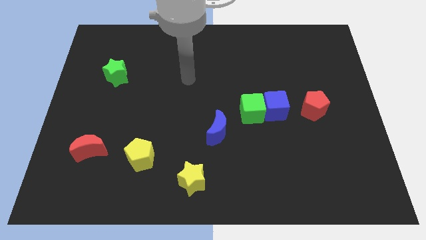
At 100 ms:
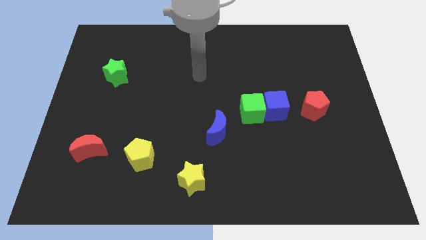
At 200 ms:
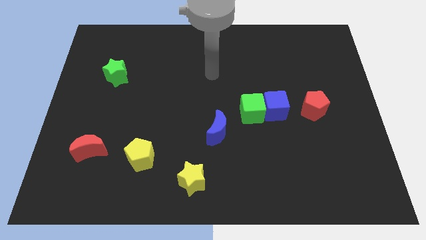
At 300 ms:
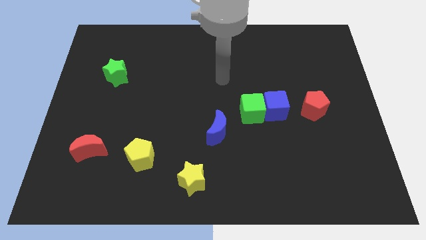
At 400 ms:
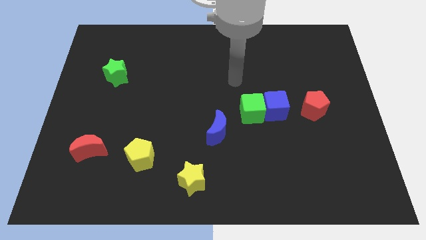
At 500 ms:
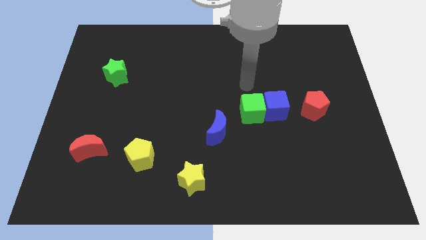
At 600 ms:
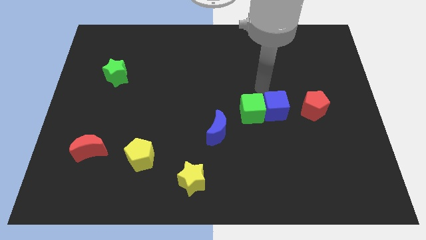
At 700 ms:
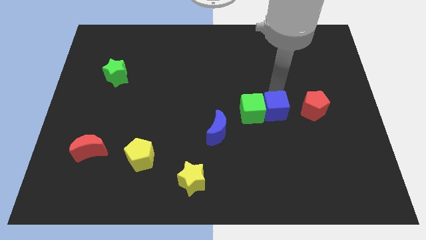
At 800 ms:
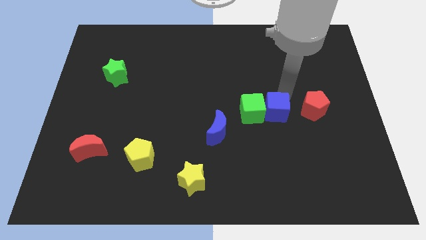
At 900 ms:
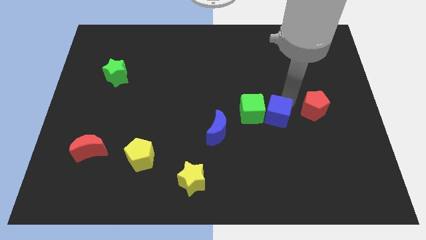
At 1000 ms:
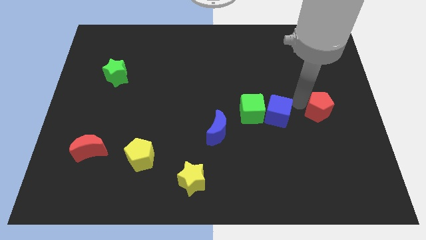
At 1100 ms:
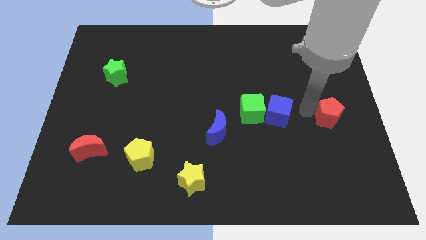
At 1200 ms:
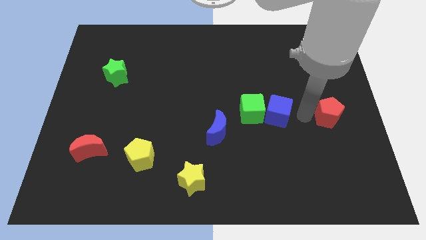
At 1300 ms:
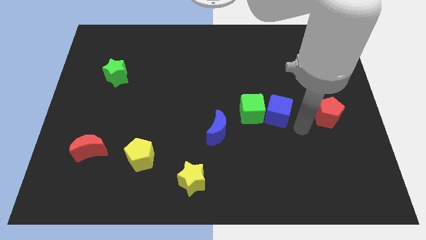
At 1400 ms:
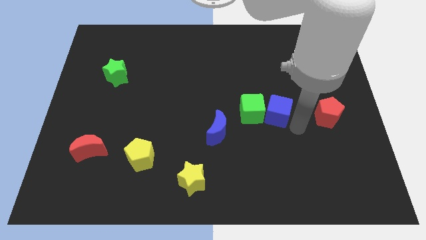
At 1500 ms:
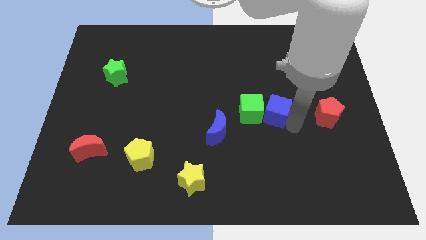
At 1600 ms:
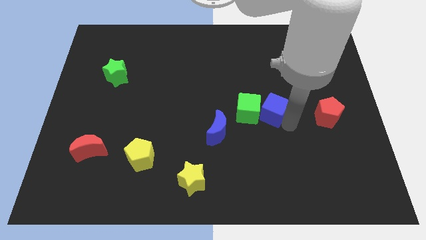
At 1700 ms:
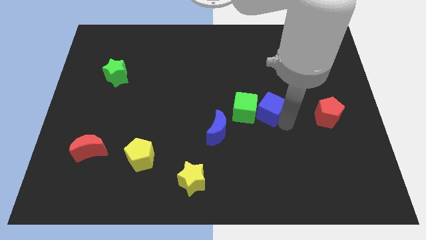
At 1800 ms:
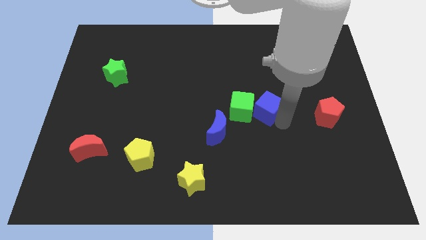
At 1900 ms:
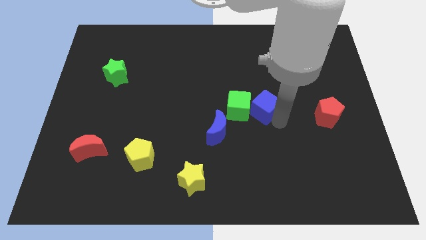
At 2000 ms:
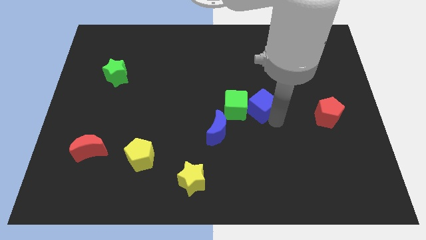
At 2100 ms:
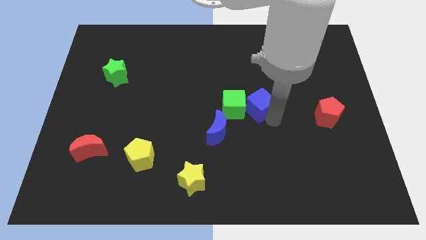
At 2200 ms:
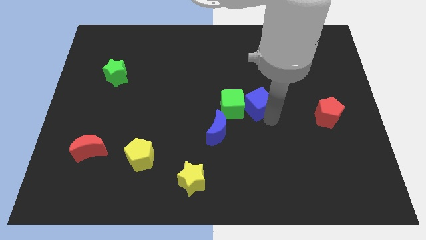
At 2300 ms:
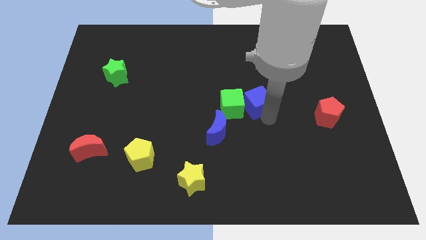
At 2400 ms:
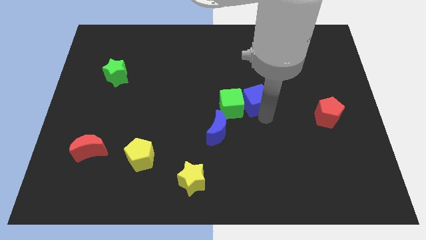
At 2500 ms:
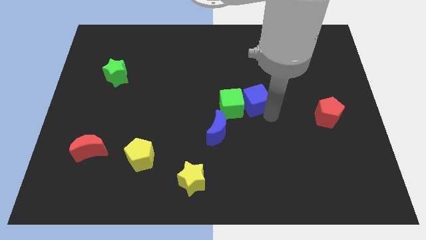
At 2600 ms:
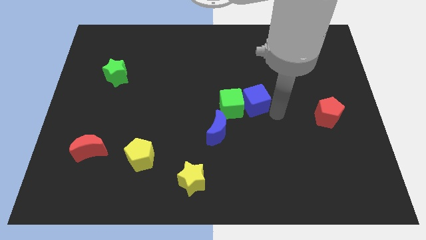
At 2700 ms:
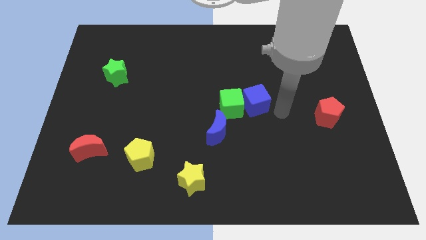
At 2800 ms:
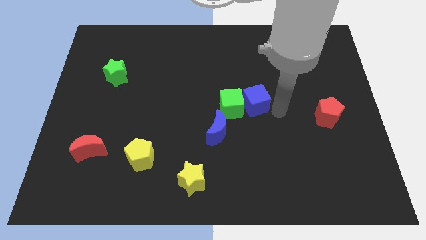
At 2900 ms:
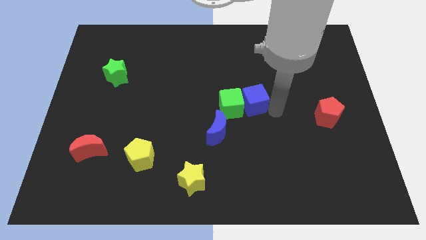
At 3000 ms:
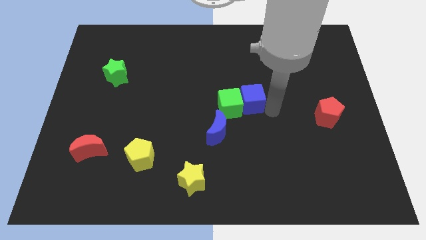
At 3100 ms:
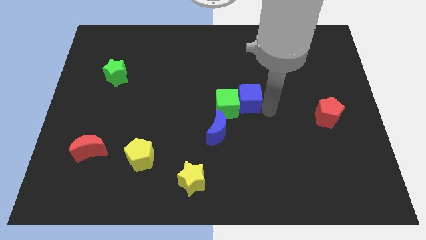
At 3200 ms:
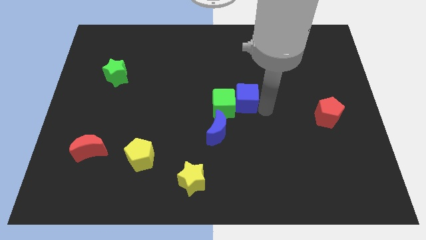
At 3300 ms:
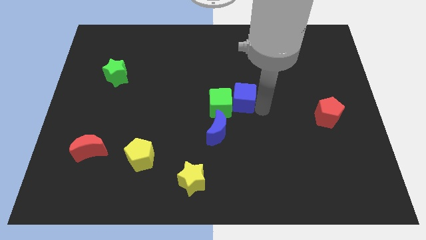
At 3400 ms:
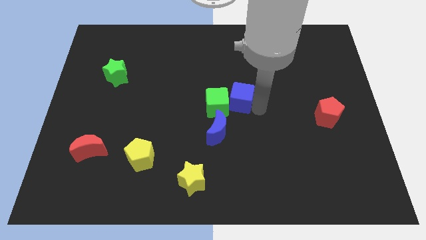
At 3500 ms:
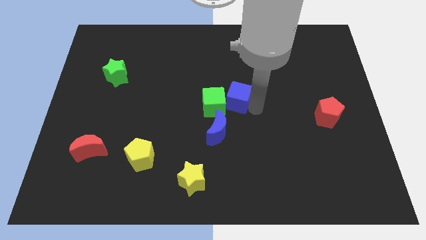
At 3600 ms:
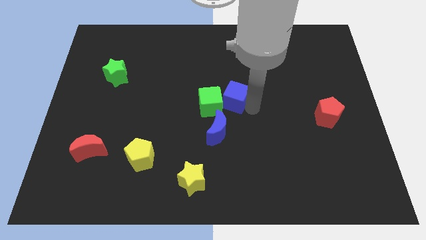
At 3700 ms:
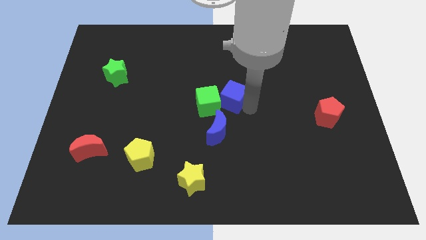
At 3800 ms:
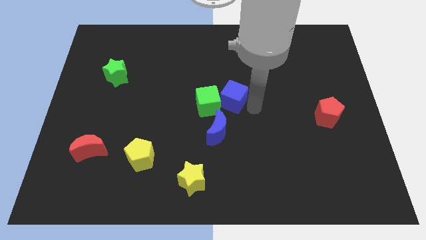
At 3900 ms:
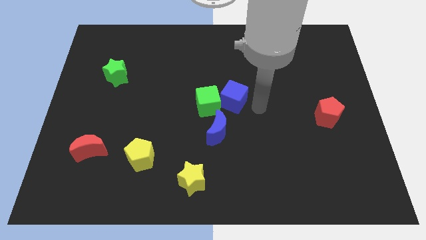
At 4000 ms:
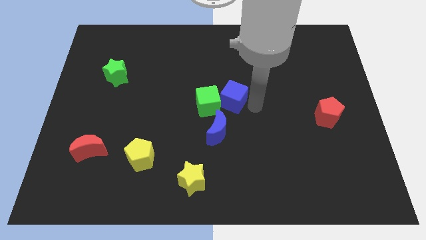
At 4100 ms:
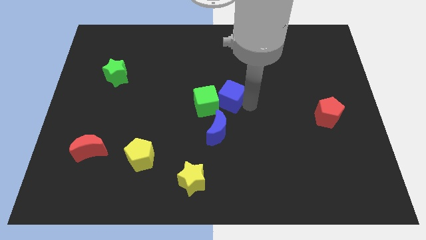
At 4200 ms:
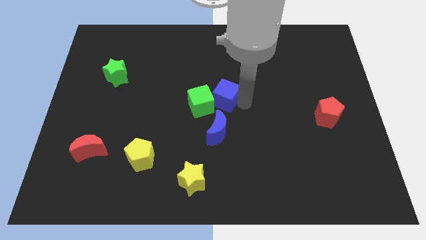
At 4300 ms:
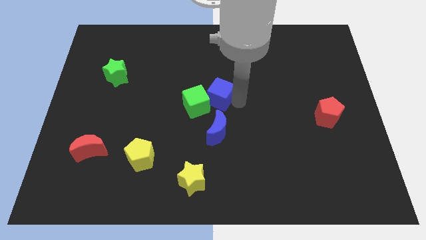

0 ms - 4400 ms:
pull the blue cube apart from the green cube and red pentagon

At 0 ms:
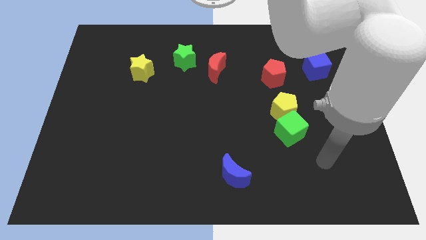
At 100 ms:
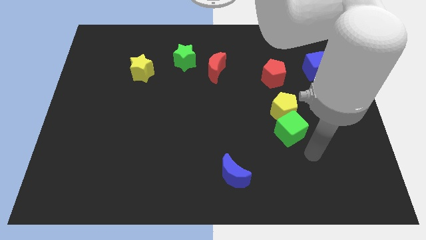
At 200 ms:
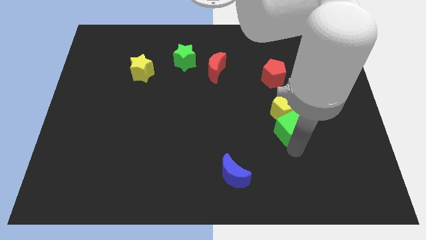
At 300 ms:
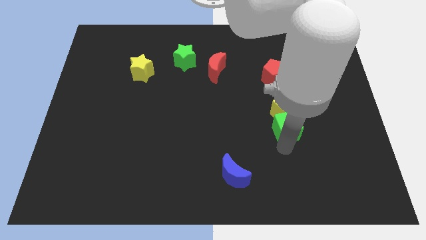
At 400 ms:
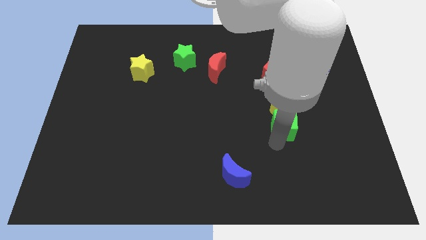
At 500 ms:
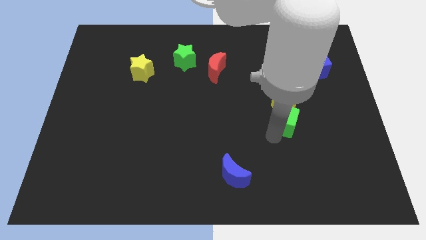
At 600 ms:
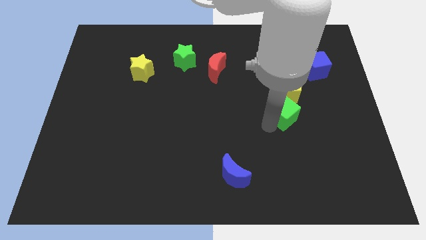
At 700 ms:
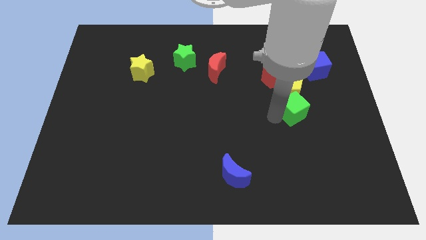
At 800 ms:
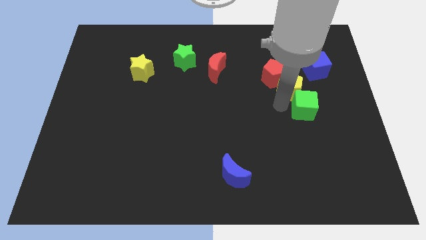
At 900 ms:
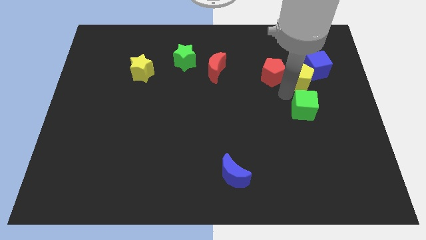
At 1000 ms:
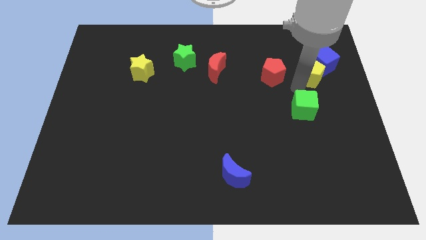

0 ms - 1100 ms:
separate the green cube from the yellow pentagon

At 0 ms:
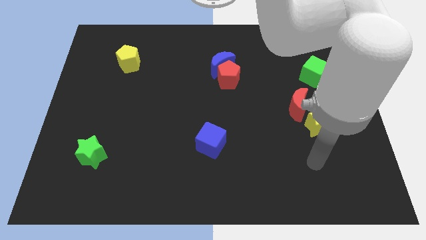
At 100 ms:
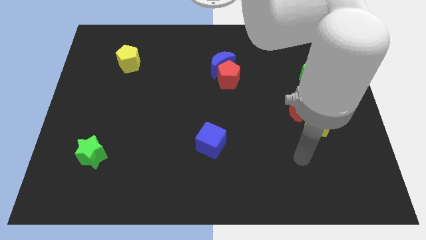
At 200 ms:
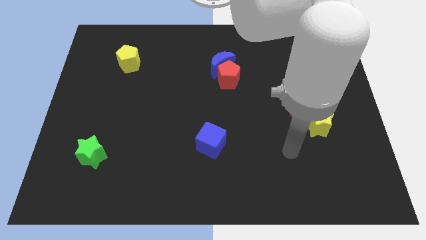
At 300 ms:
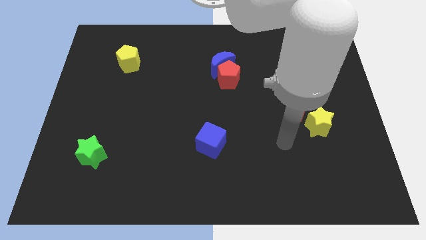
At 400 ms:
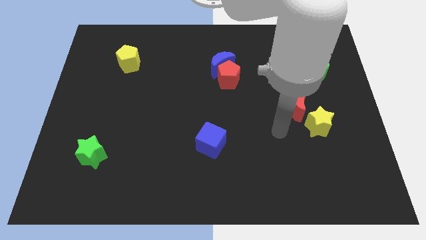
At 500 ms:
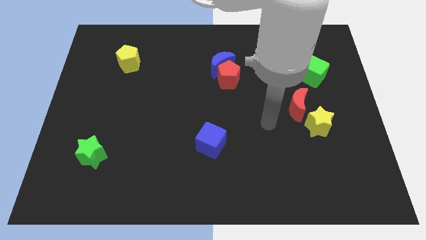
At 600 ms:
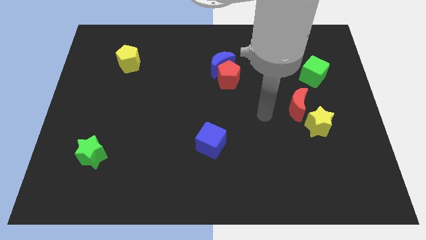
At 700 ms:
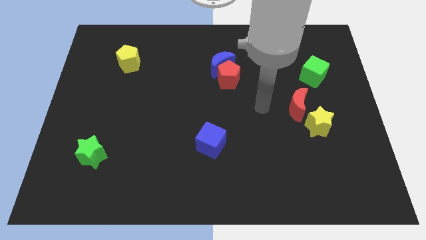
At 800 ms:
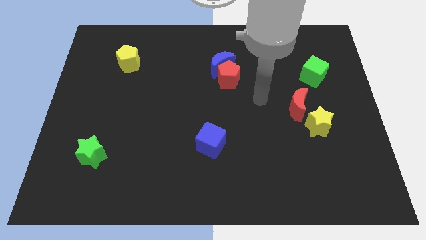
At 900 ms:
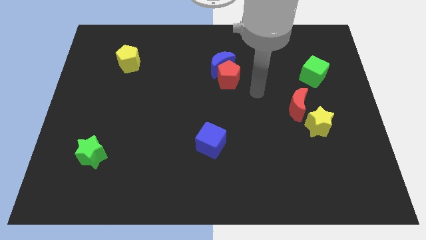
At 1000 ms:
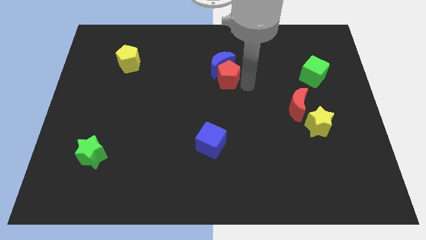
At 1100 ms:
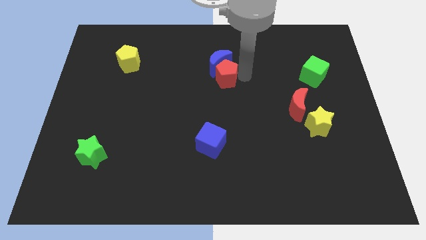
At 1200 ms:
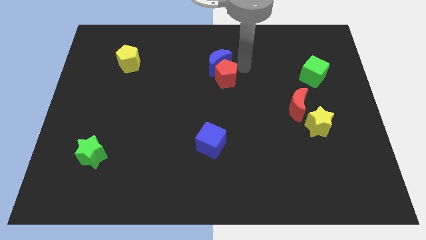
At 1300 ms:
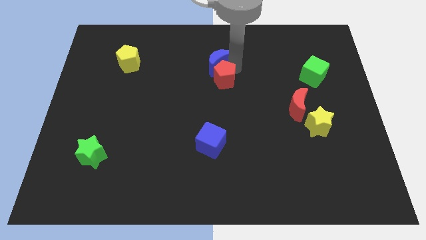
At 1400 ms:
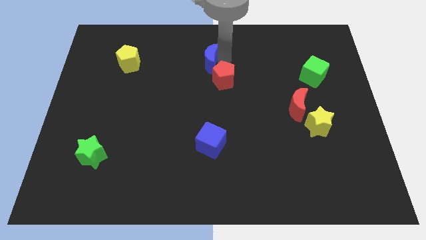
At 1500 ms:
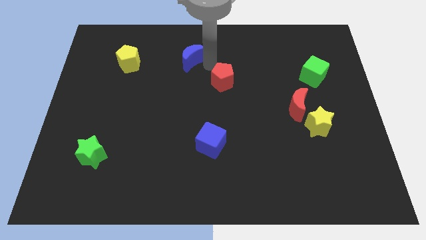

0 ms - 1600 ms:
separate the red pentagon from the blue moon

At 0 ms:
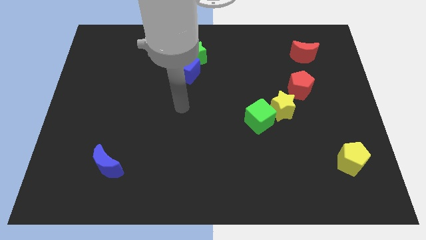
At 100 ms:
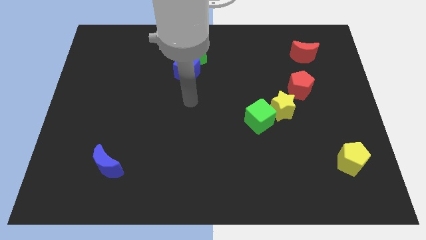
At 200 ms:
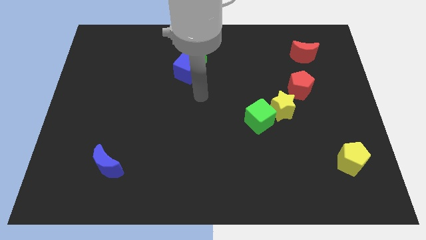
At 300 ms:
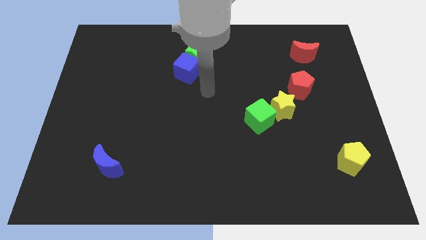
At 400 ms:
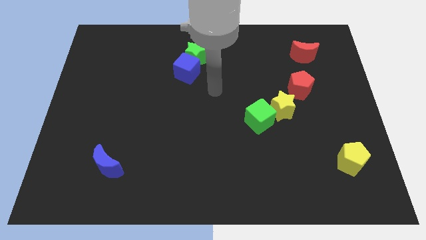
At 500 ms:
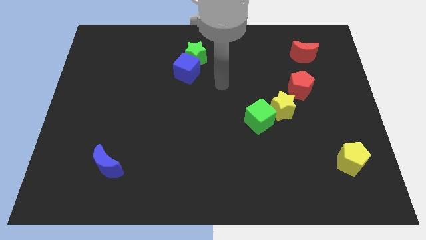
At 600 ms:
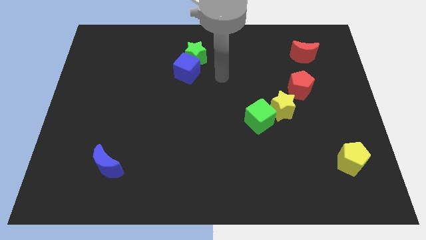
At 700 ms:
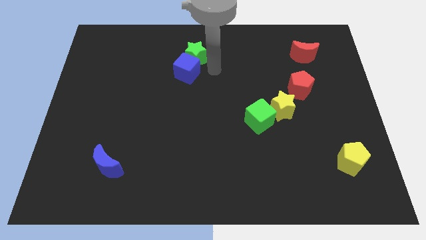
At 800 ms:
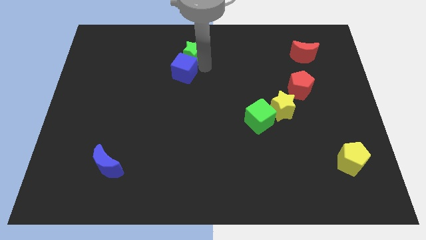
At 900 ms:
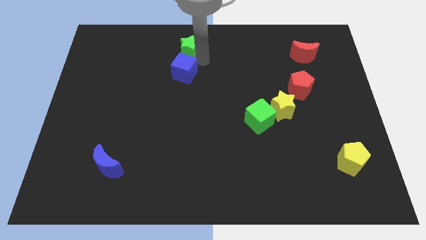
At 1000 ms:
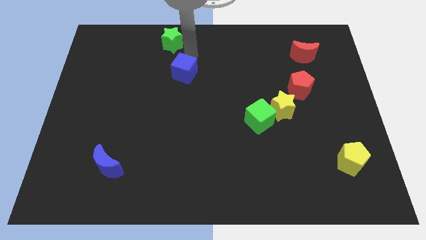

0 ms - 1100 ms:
pull the blue cube apart from the green star

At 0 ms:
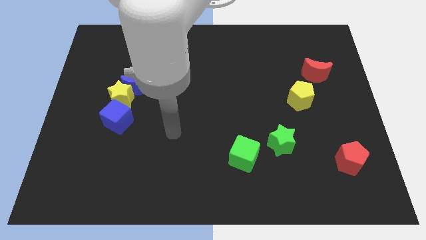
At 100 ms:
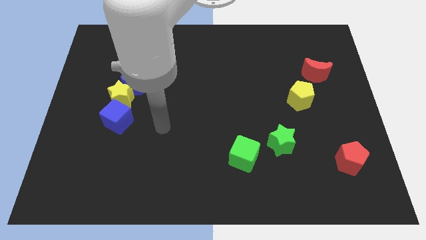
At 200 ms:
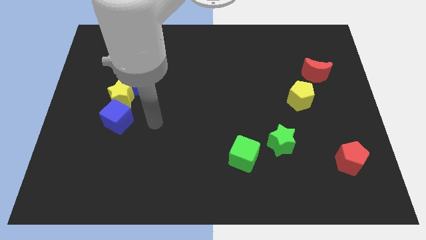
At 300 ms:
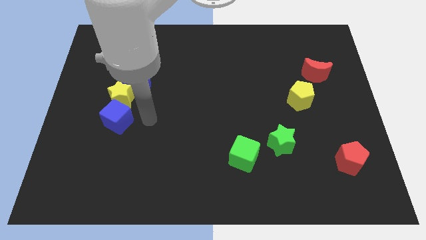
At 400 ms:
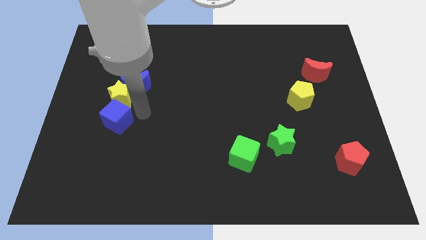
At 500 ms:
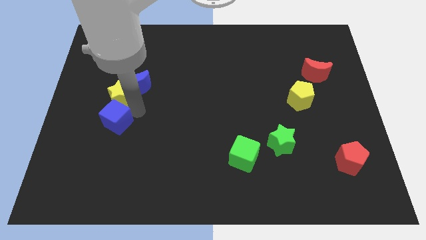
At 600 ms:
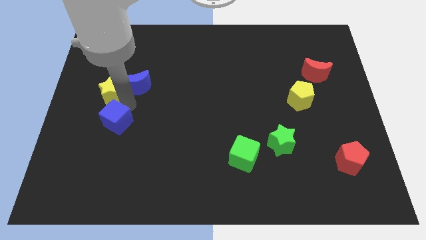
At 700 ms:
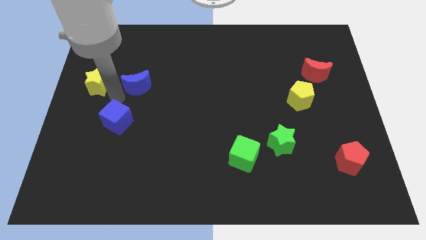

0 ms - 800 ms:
pull the blue moon apart from the yellow star

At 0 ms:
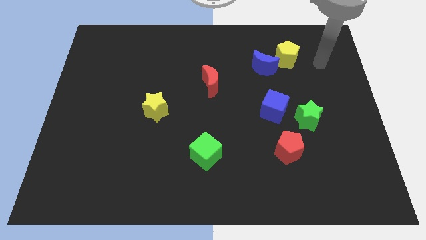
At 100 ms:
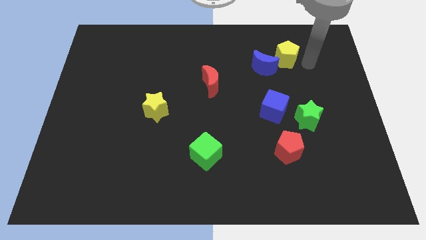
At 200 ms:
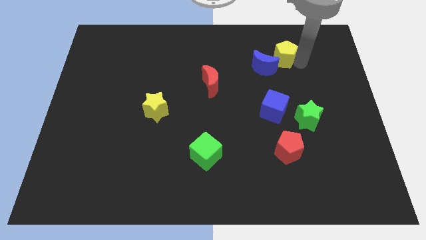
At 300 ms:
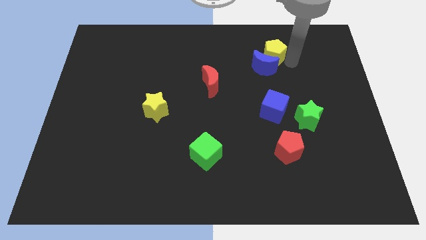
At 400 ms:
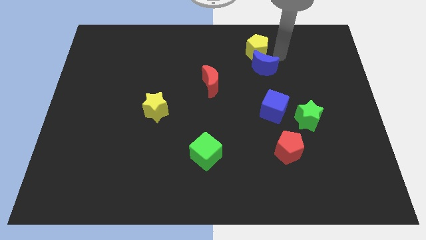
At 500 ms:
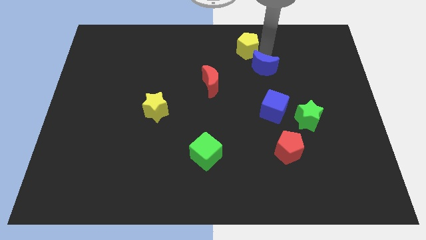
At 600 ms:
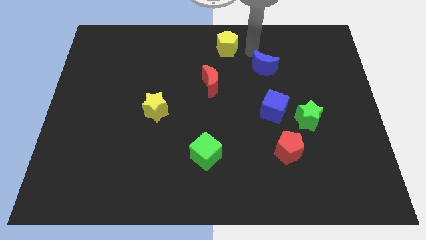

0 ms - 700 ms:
separate the blue moon from the yellow pentagon
